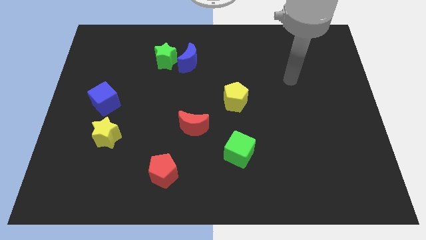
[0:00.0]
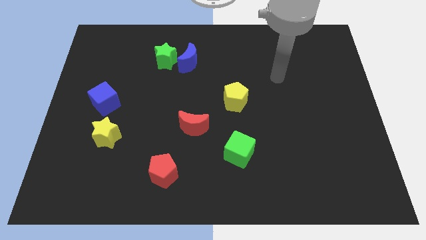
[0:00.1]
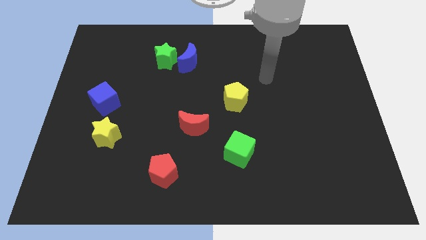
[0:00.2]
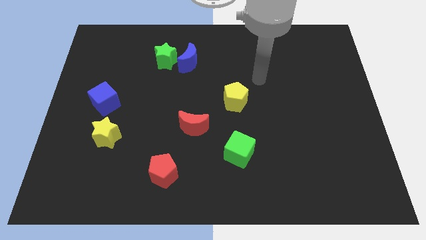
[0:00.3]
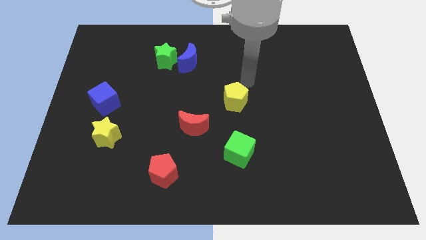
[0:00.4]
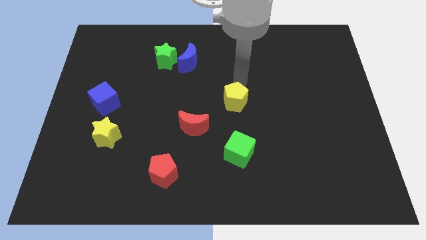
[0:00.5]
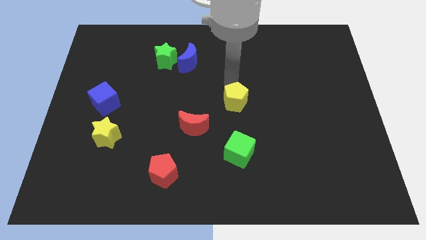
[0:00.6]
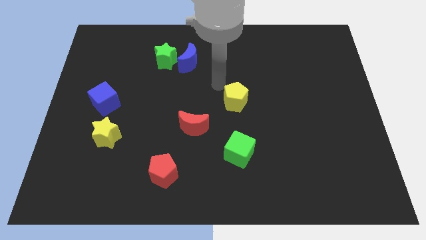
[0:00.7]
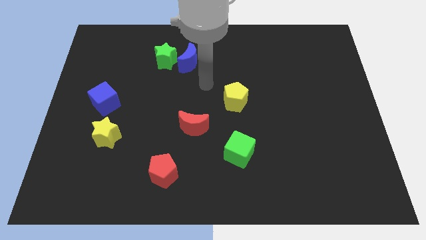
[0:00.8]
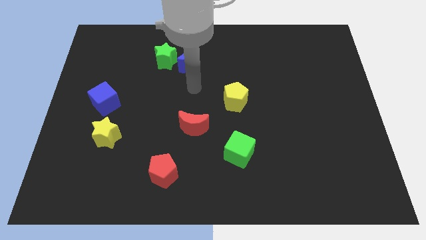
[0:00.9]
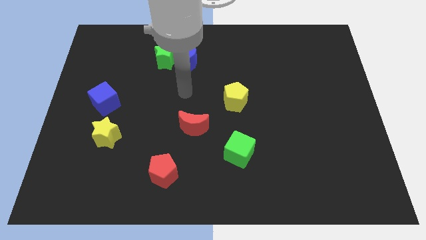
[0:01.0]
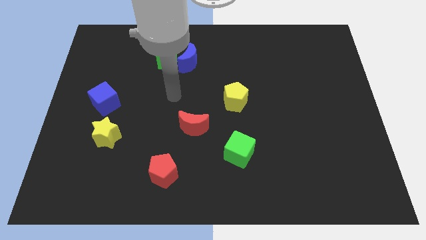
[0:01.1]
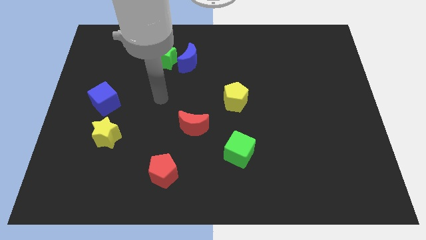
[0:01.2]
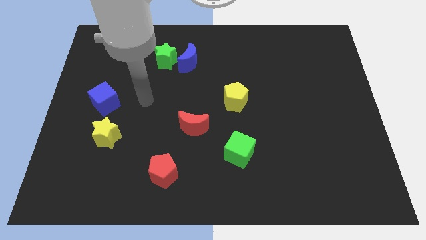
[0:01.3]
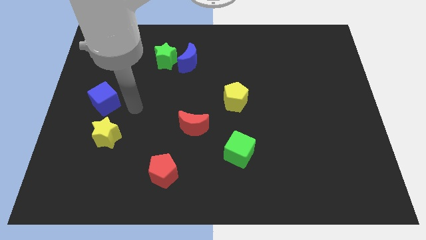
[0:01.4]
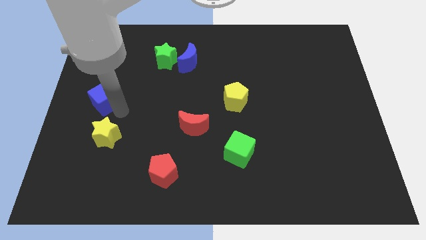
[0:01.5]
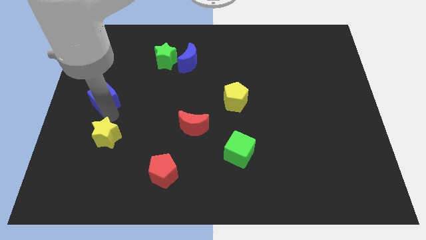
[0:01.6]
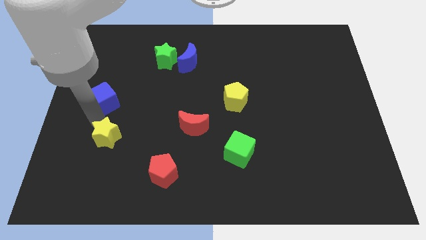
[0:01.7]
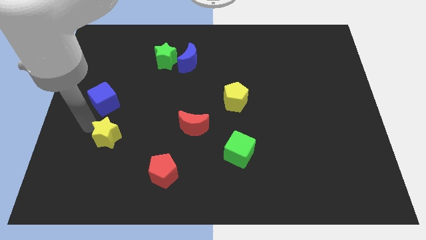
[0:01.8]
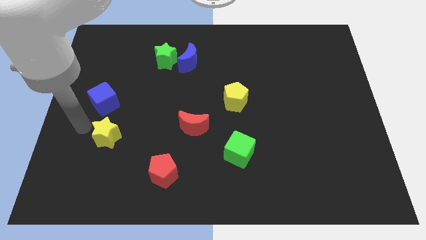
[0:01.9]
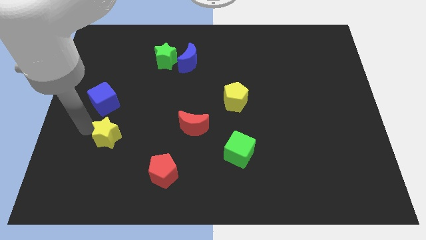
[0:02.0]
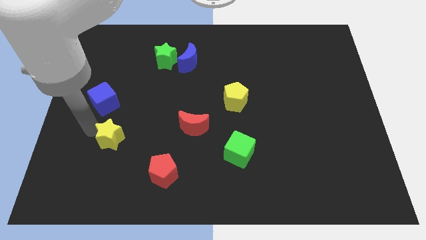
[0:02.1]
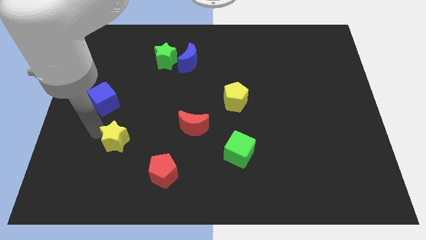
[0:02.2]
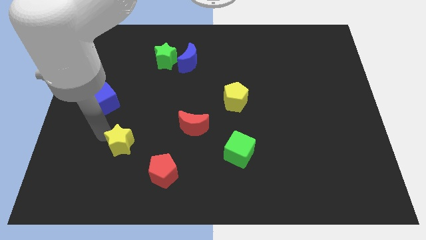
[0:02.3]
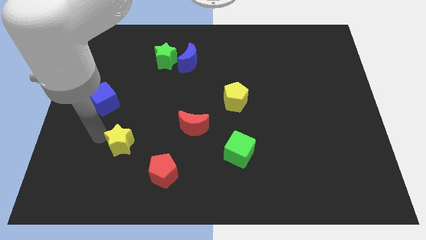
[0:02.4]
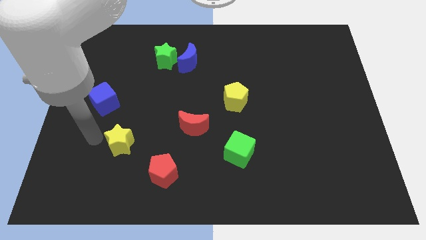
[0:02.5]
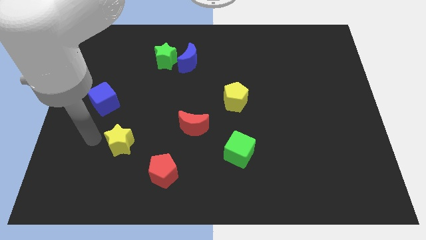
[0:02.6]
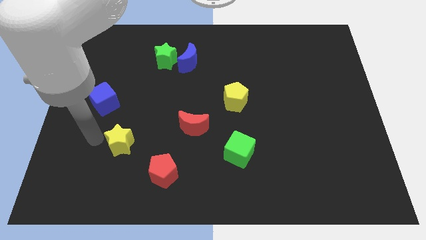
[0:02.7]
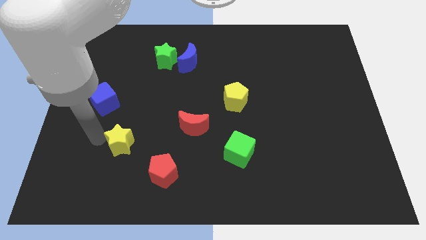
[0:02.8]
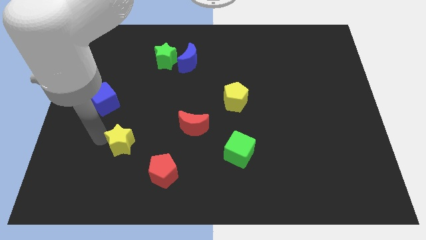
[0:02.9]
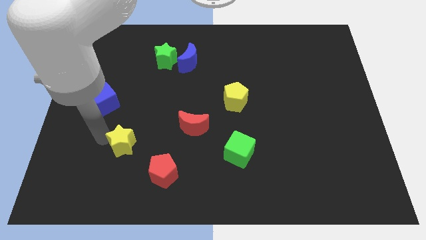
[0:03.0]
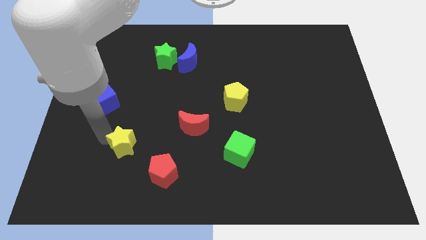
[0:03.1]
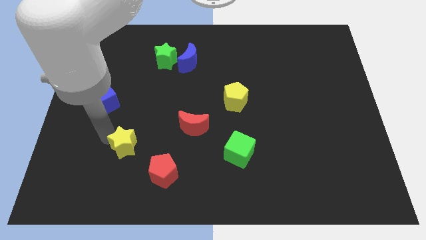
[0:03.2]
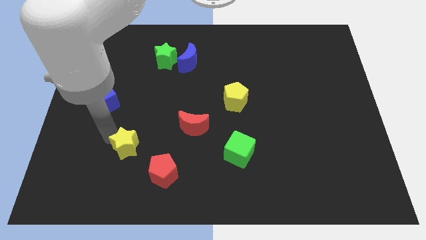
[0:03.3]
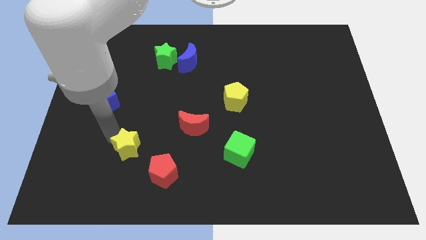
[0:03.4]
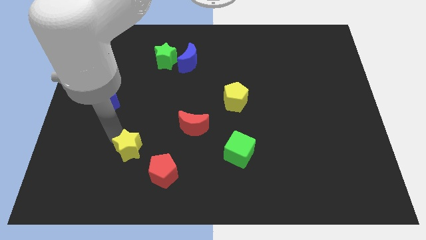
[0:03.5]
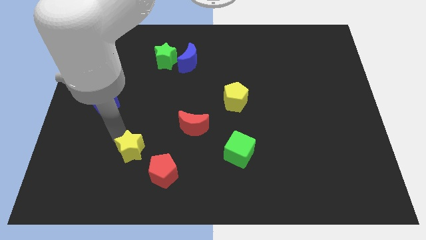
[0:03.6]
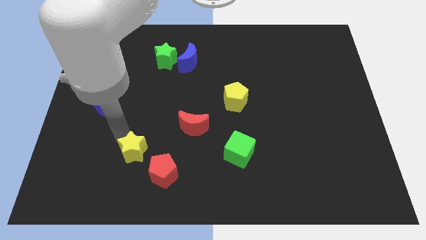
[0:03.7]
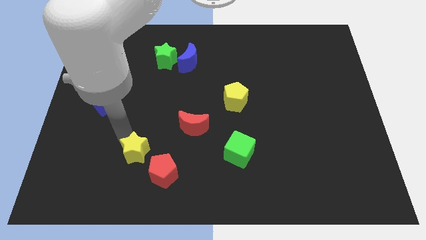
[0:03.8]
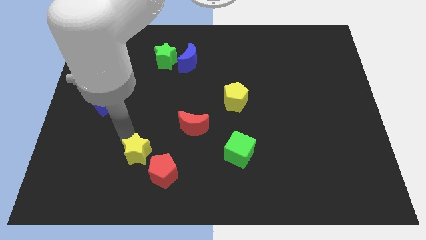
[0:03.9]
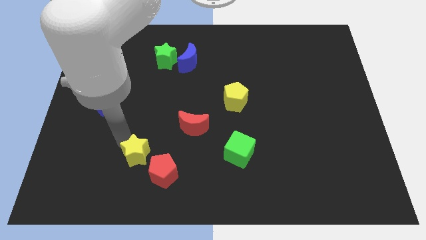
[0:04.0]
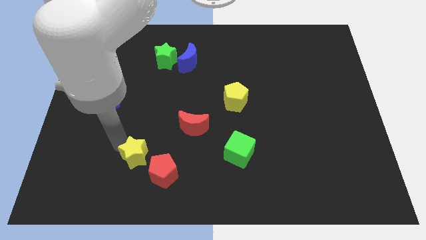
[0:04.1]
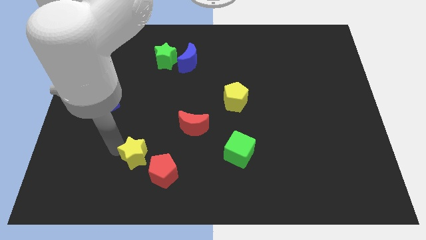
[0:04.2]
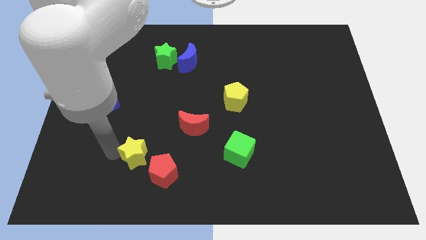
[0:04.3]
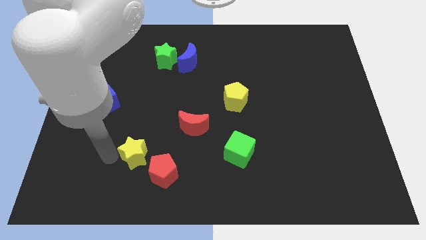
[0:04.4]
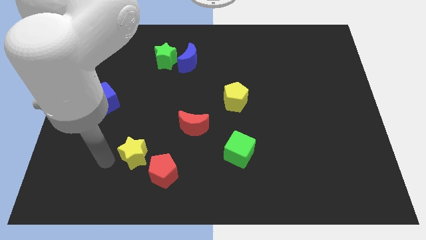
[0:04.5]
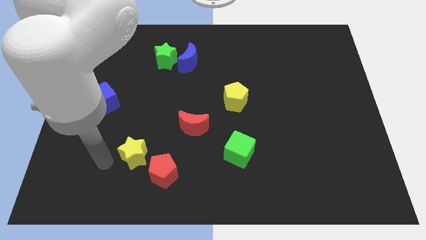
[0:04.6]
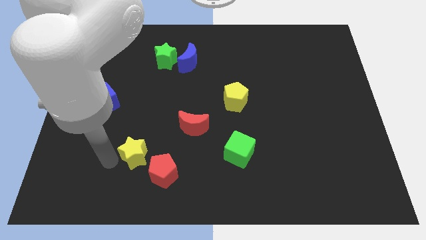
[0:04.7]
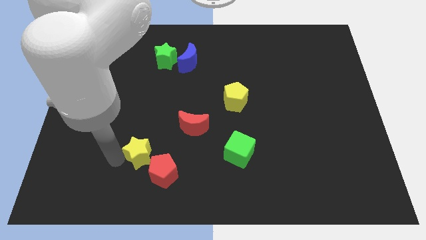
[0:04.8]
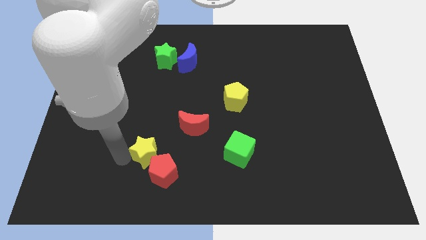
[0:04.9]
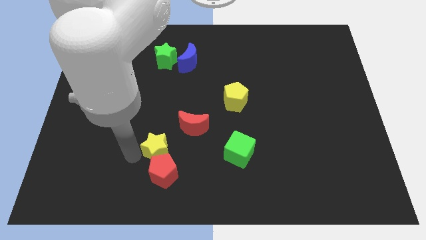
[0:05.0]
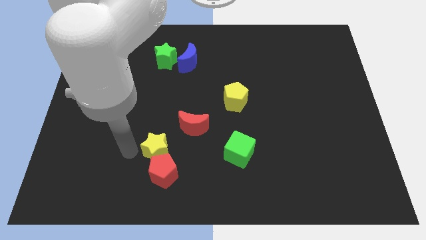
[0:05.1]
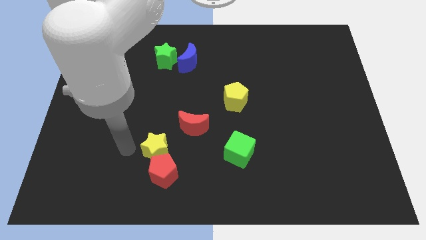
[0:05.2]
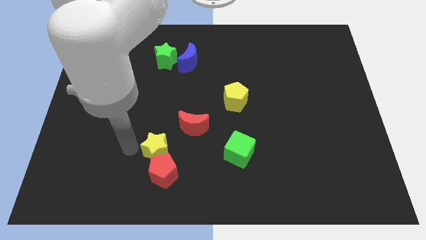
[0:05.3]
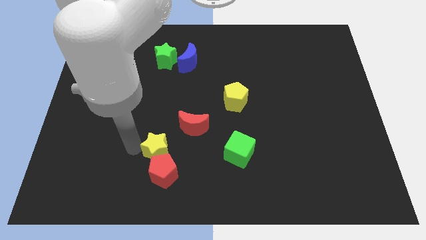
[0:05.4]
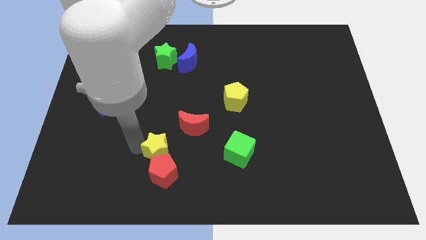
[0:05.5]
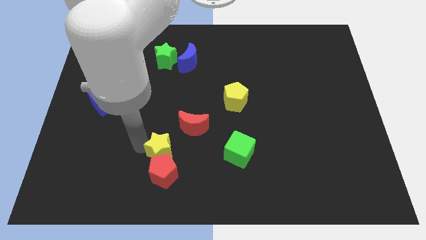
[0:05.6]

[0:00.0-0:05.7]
put the yellow star to the top right of the red pentagon

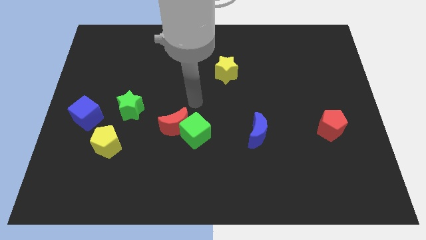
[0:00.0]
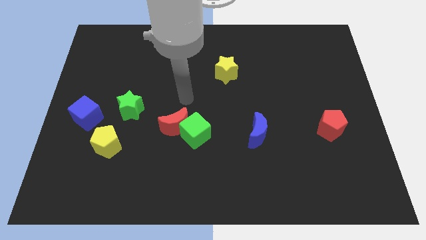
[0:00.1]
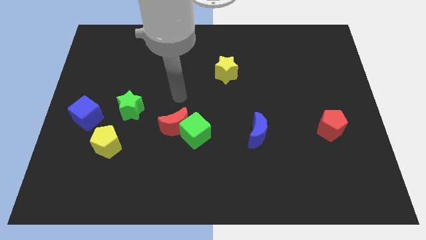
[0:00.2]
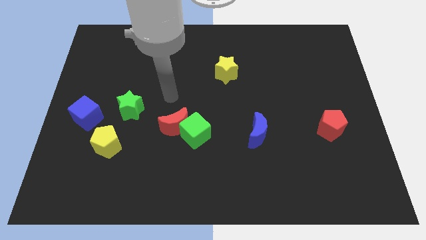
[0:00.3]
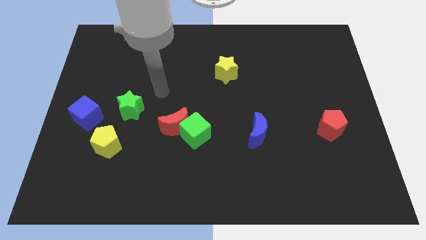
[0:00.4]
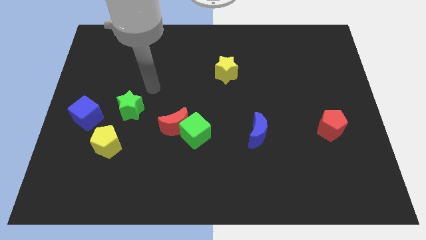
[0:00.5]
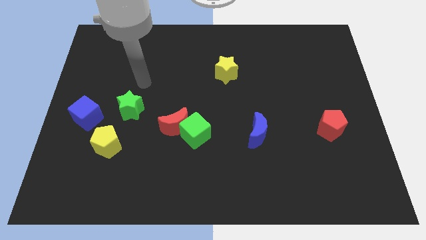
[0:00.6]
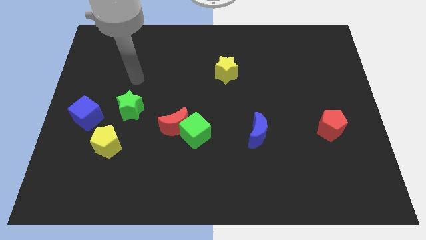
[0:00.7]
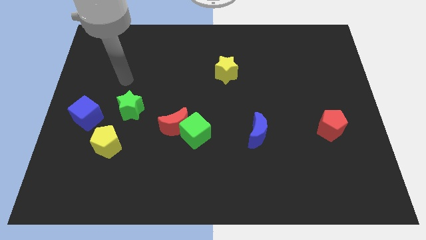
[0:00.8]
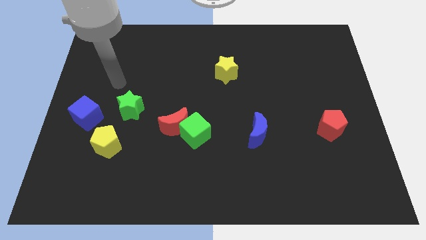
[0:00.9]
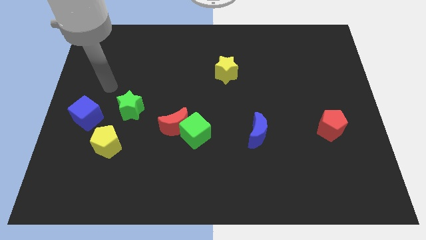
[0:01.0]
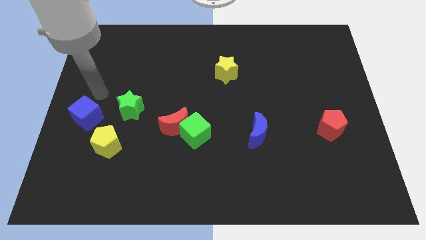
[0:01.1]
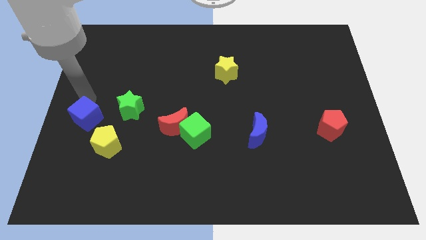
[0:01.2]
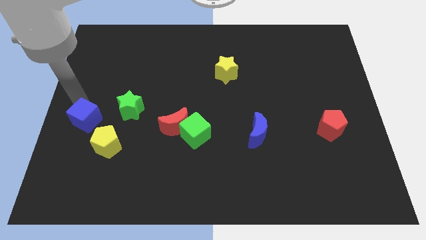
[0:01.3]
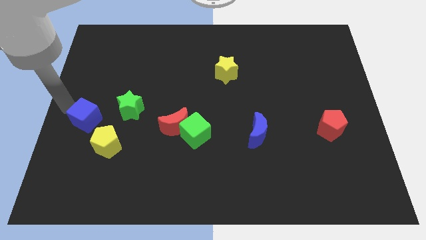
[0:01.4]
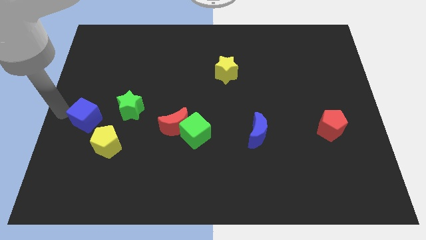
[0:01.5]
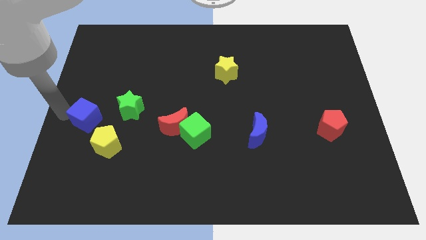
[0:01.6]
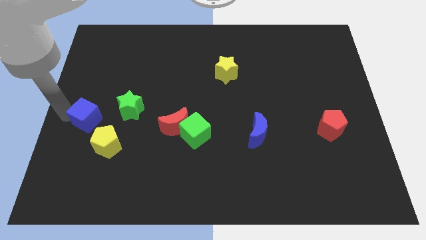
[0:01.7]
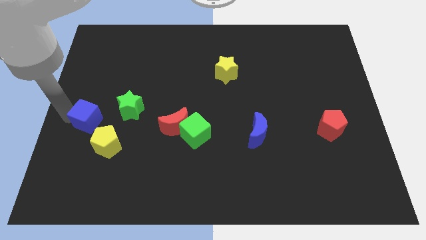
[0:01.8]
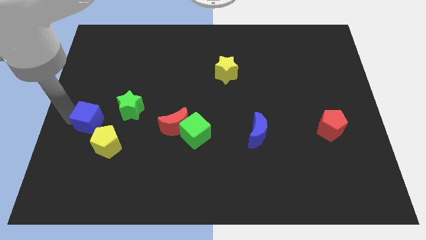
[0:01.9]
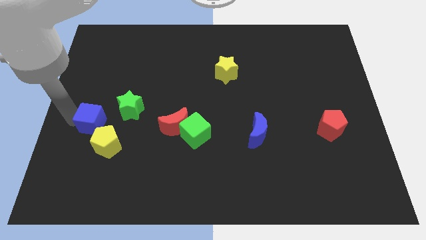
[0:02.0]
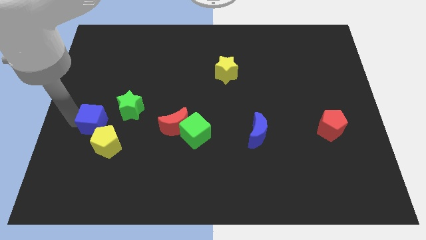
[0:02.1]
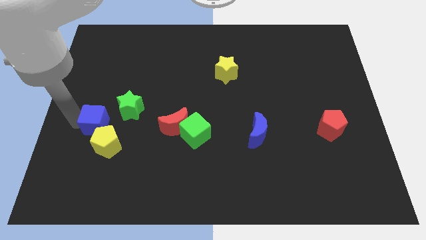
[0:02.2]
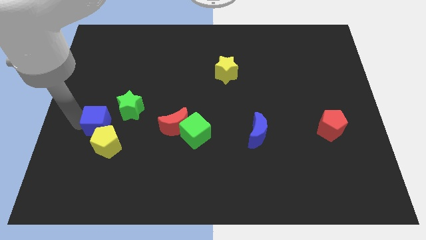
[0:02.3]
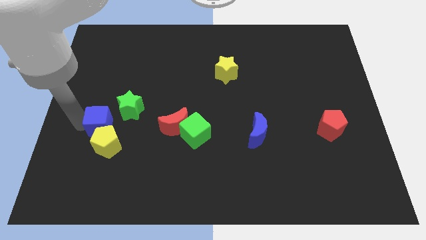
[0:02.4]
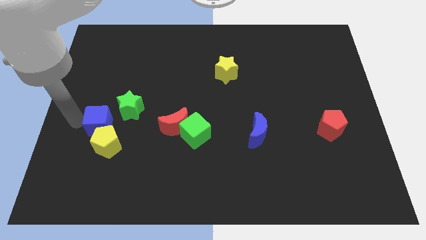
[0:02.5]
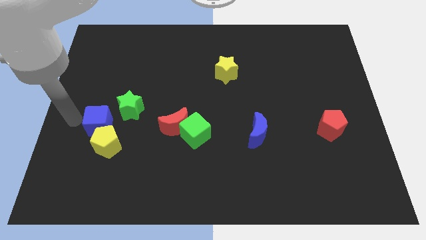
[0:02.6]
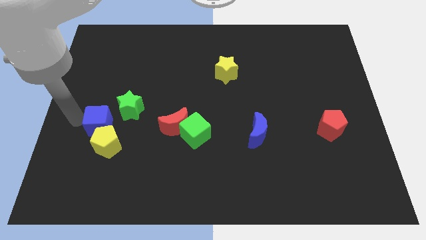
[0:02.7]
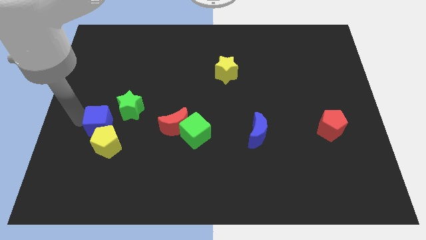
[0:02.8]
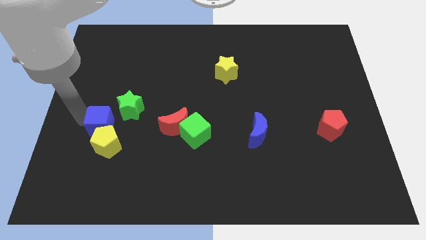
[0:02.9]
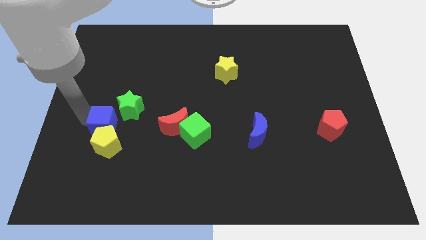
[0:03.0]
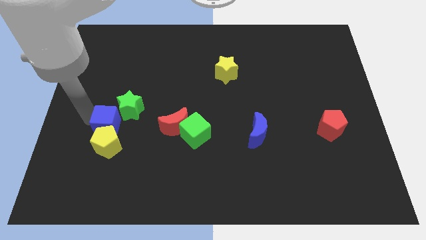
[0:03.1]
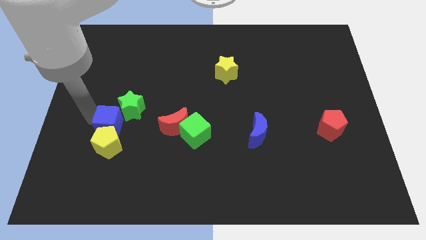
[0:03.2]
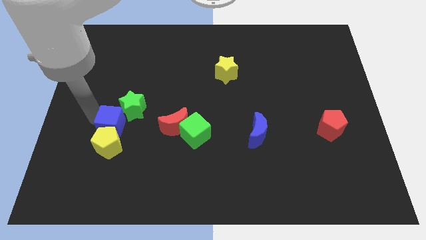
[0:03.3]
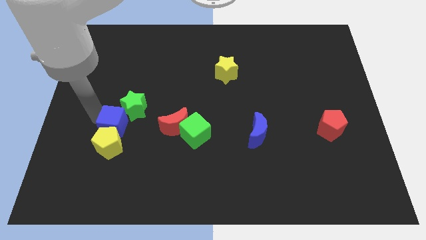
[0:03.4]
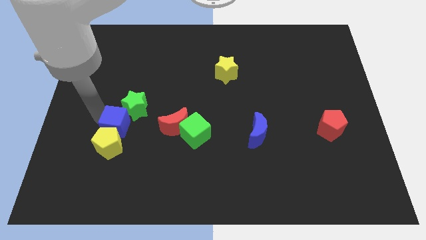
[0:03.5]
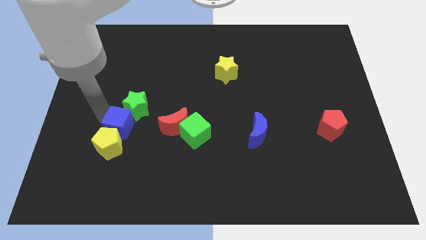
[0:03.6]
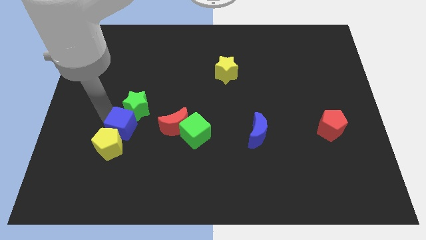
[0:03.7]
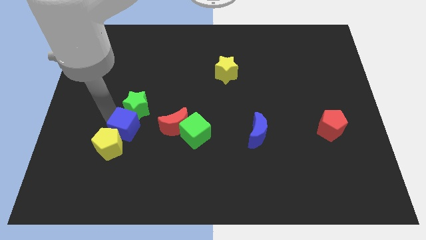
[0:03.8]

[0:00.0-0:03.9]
push the blue cube just left of the green cube
